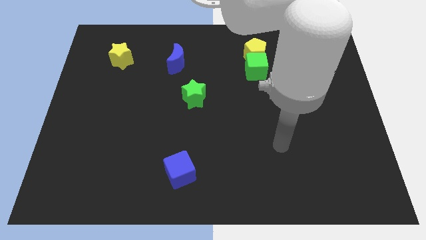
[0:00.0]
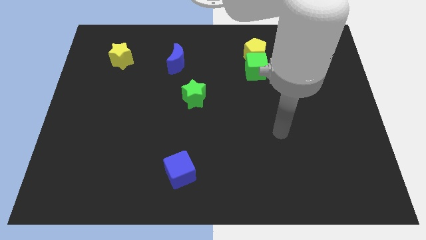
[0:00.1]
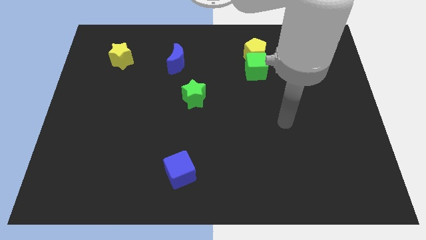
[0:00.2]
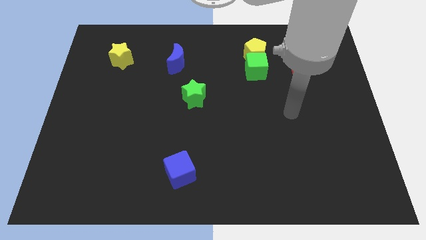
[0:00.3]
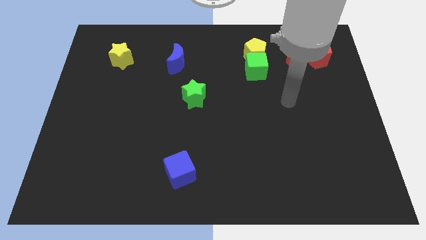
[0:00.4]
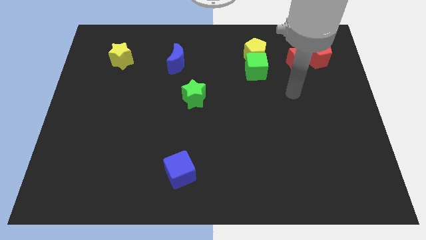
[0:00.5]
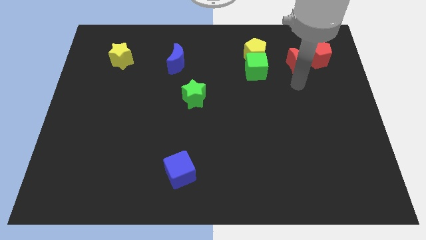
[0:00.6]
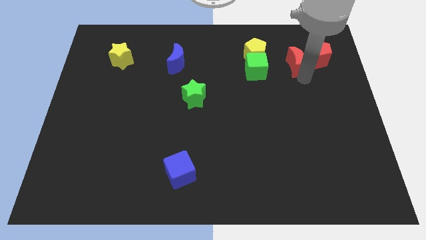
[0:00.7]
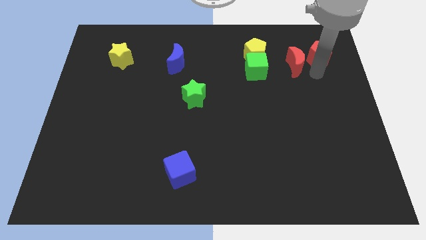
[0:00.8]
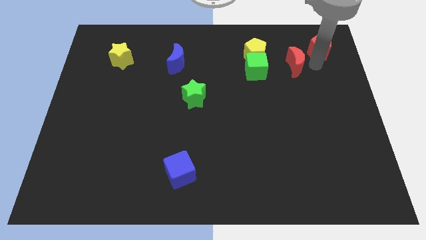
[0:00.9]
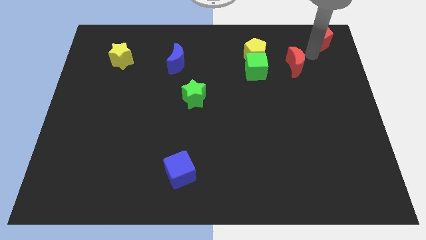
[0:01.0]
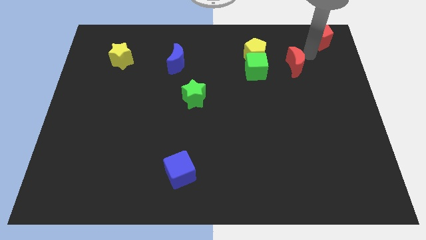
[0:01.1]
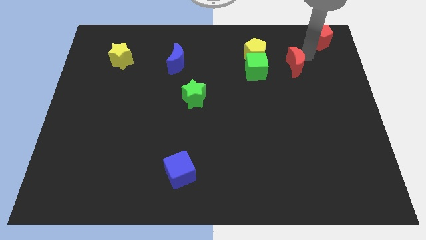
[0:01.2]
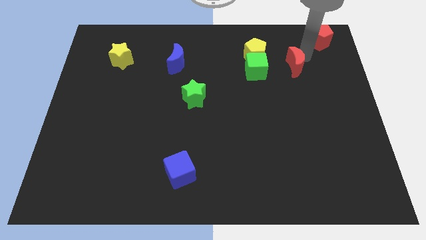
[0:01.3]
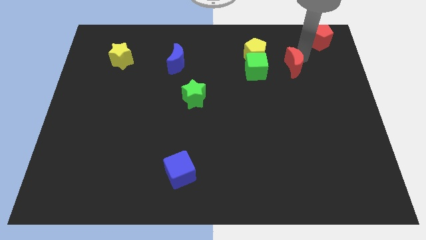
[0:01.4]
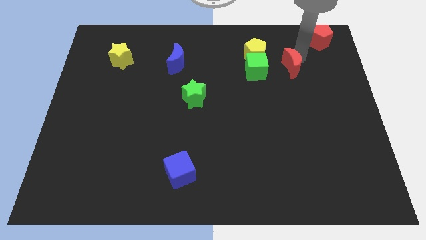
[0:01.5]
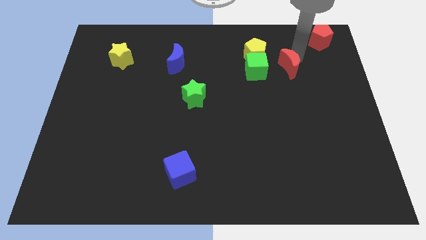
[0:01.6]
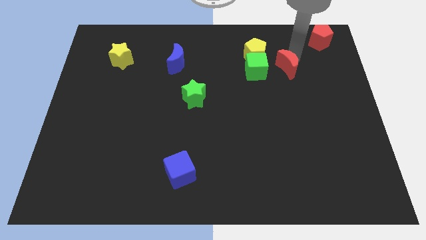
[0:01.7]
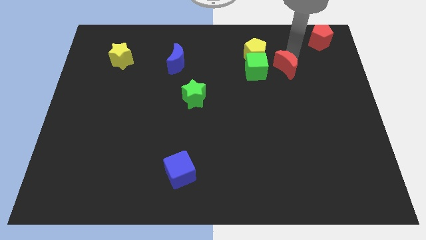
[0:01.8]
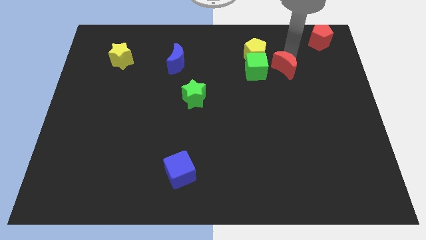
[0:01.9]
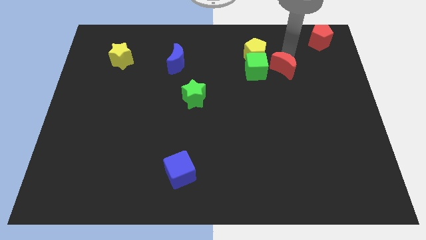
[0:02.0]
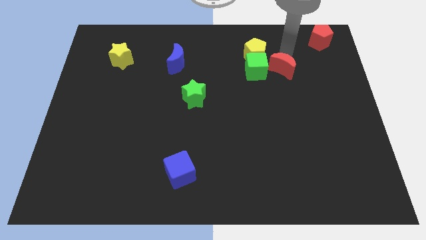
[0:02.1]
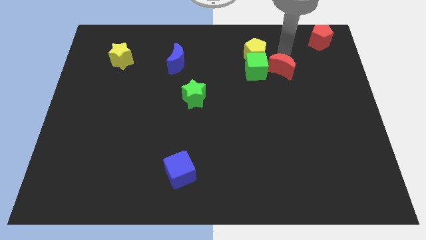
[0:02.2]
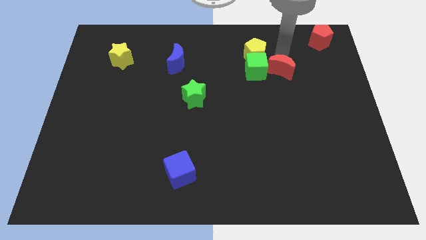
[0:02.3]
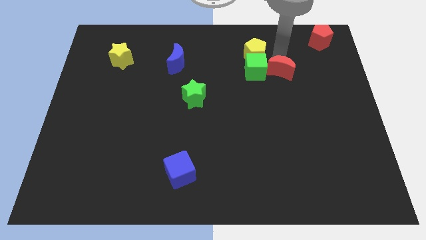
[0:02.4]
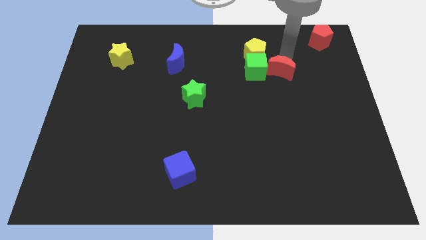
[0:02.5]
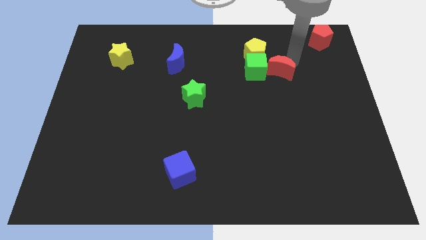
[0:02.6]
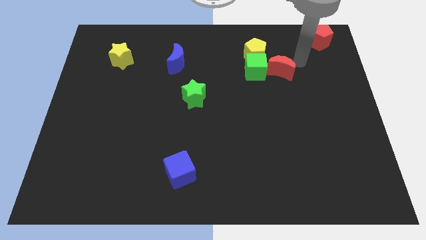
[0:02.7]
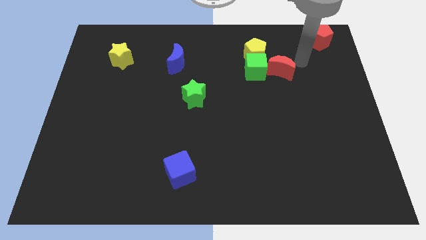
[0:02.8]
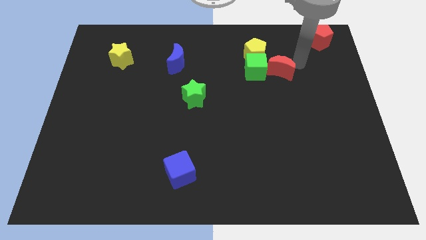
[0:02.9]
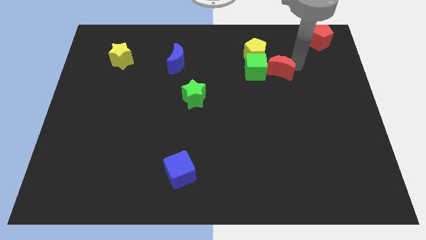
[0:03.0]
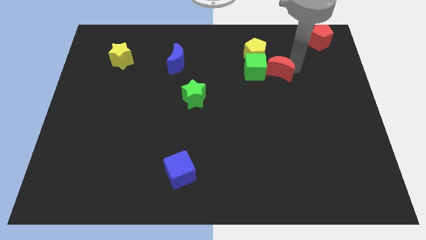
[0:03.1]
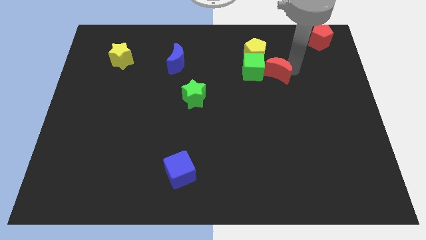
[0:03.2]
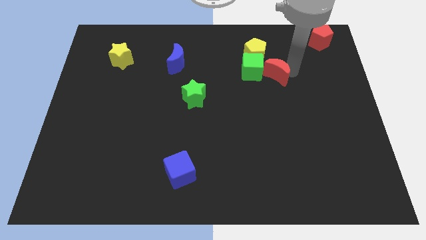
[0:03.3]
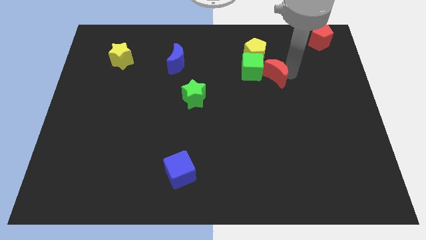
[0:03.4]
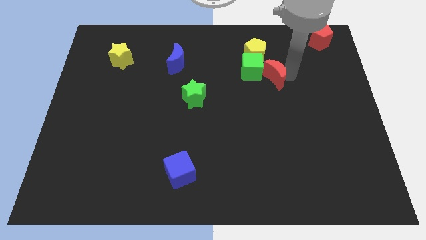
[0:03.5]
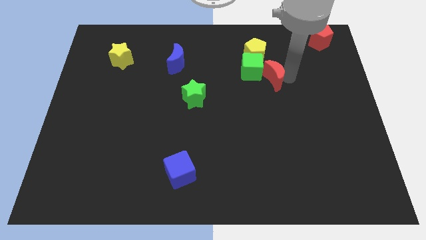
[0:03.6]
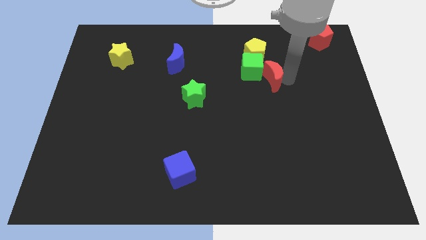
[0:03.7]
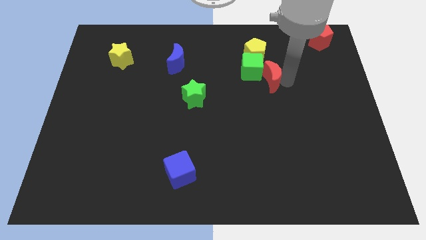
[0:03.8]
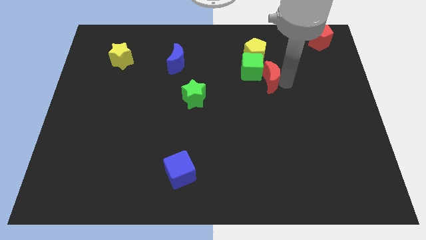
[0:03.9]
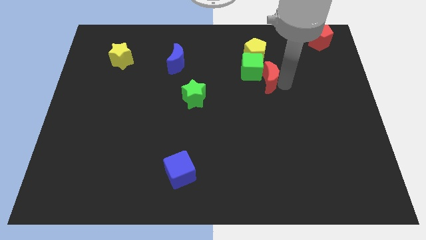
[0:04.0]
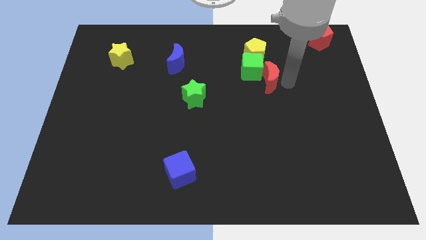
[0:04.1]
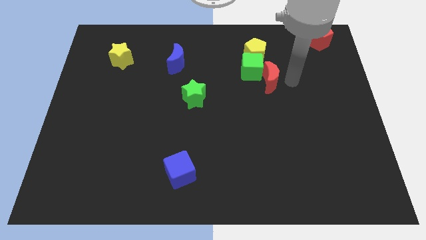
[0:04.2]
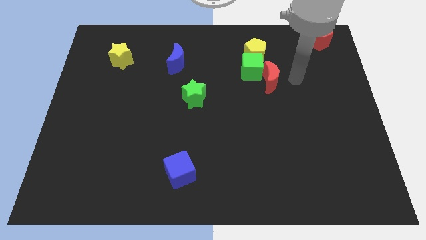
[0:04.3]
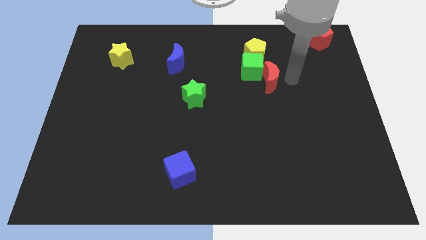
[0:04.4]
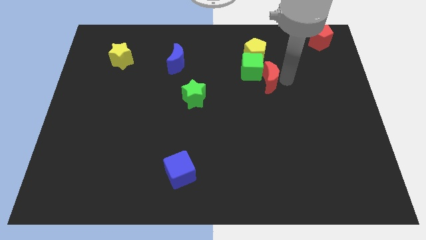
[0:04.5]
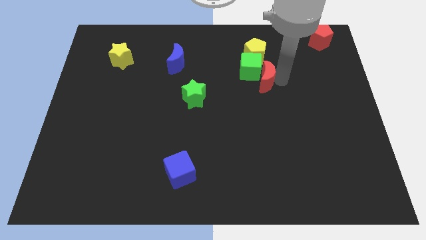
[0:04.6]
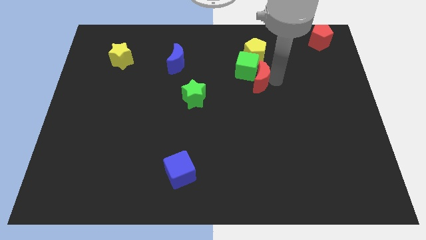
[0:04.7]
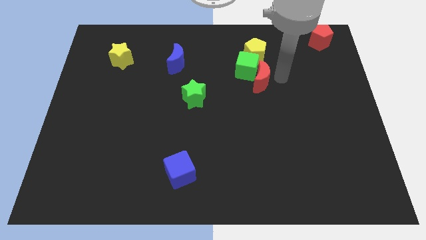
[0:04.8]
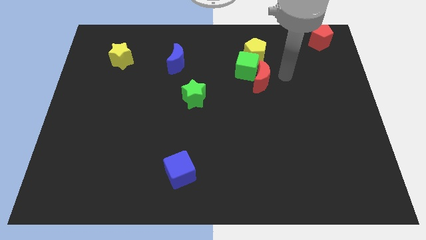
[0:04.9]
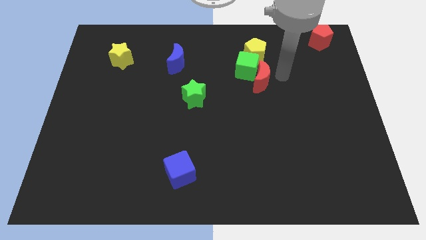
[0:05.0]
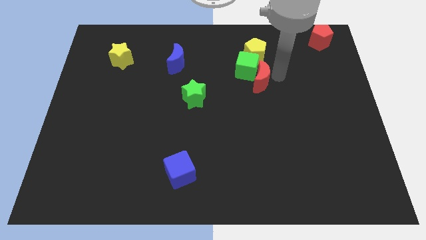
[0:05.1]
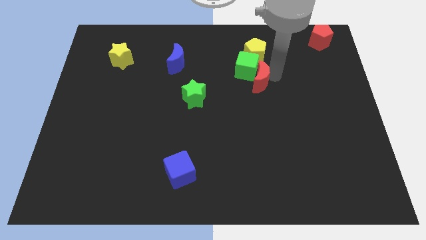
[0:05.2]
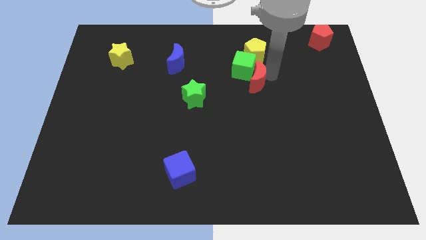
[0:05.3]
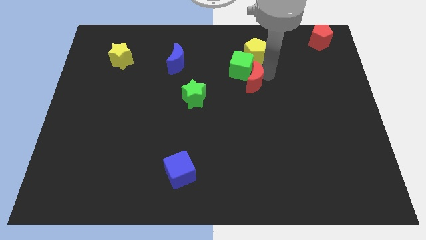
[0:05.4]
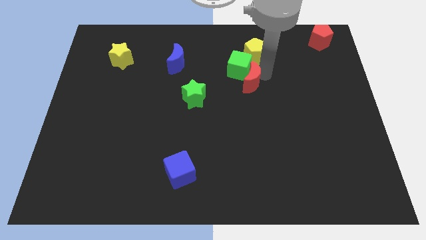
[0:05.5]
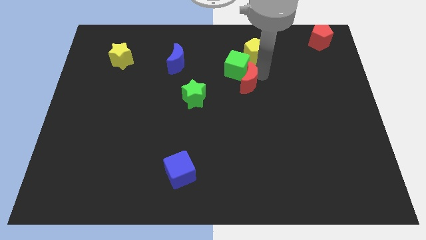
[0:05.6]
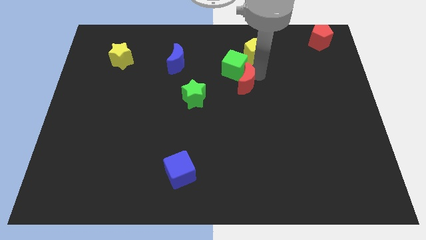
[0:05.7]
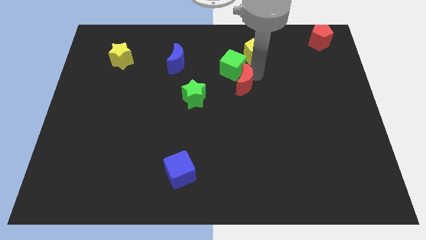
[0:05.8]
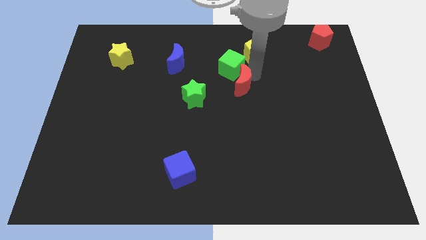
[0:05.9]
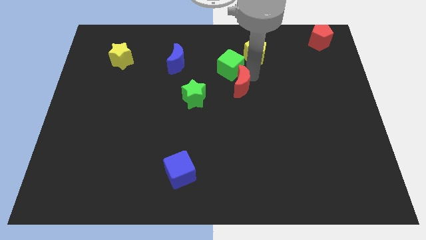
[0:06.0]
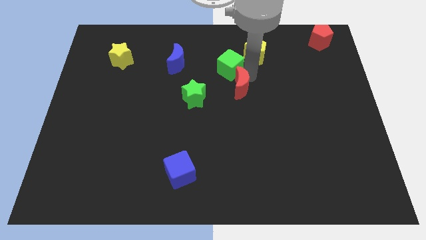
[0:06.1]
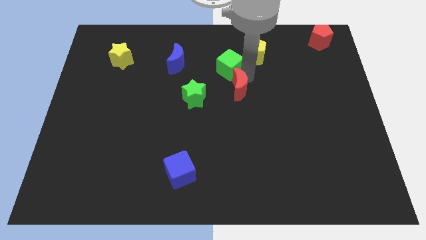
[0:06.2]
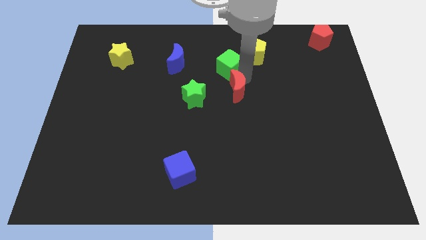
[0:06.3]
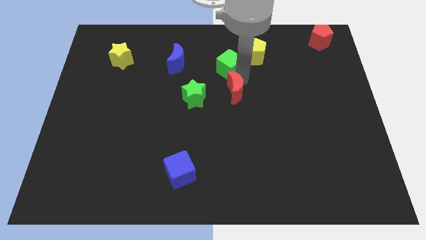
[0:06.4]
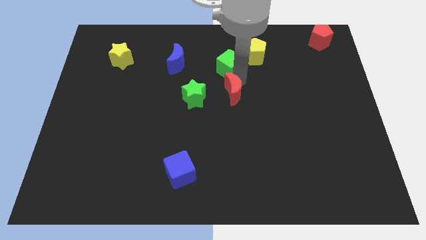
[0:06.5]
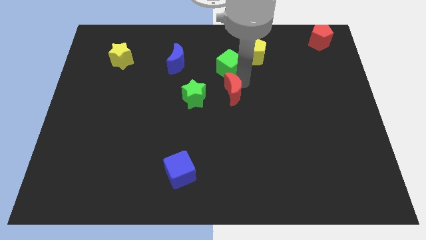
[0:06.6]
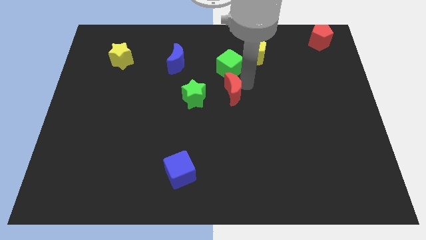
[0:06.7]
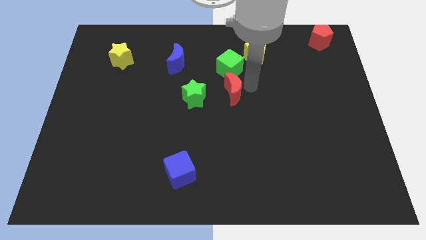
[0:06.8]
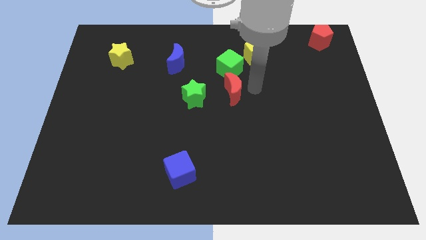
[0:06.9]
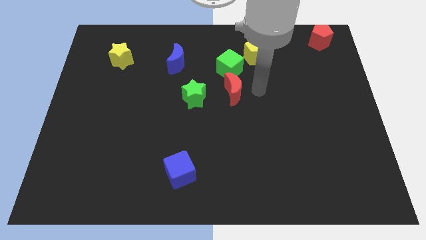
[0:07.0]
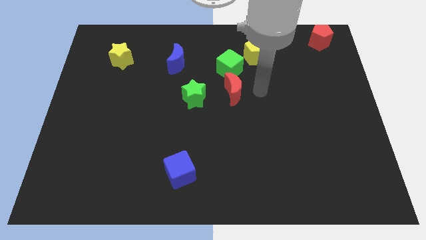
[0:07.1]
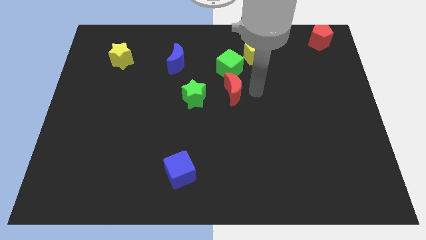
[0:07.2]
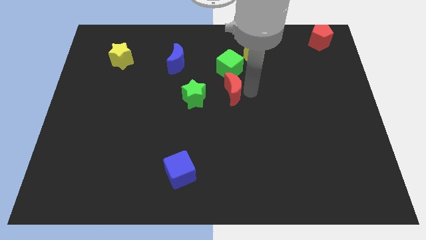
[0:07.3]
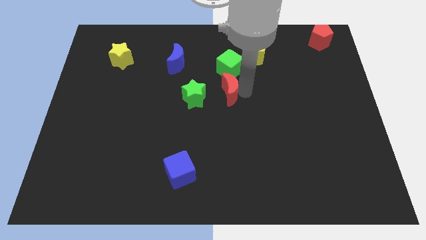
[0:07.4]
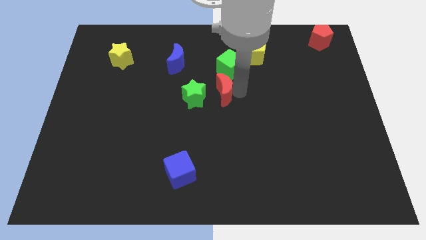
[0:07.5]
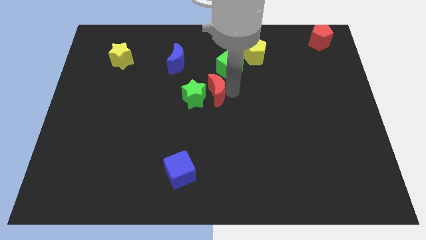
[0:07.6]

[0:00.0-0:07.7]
push the red moon close to the green star
